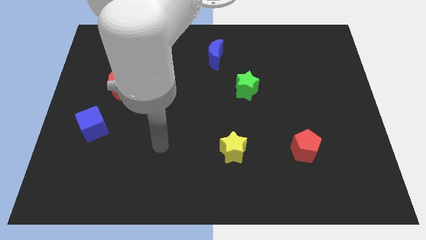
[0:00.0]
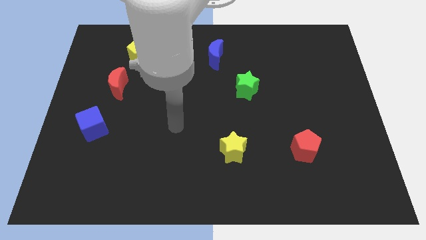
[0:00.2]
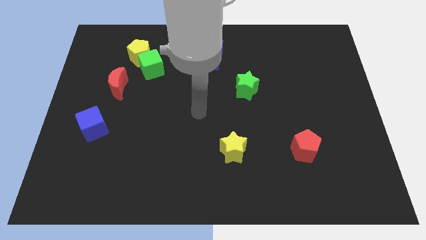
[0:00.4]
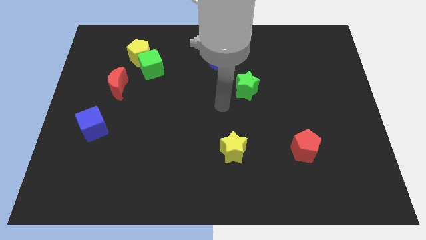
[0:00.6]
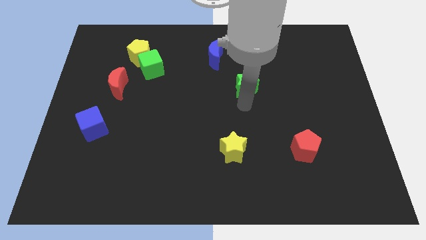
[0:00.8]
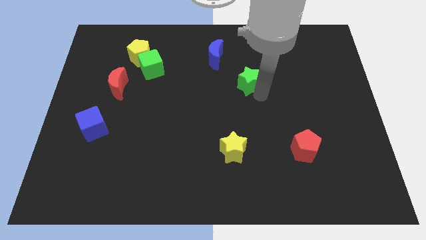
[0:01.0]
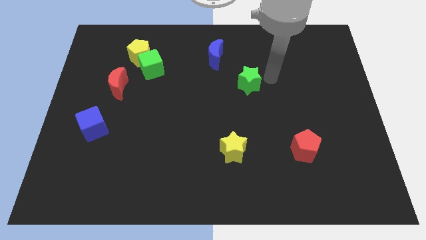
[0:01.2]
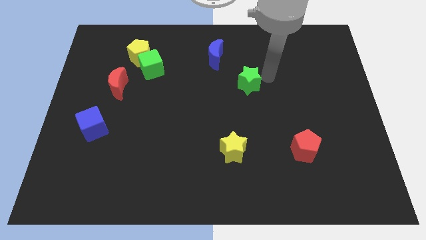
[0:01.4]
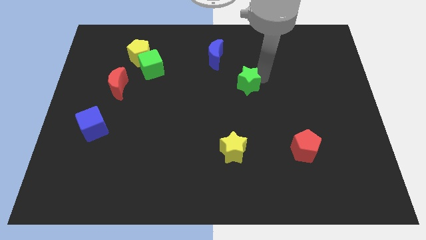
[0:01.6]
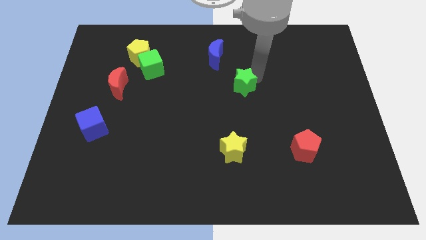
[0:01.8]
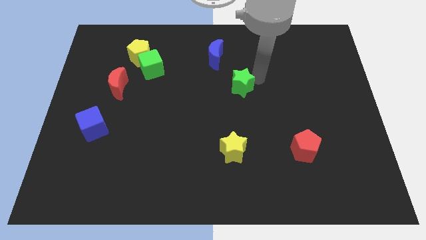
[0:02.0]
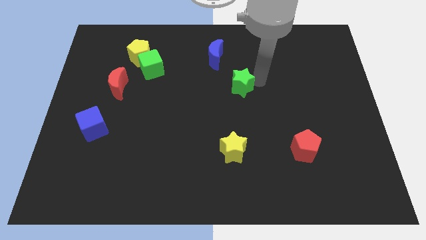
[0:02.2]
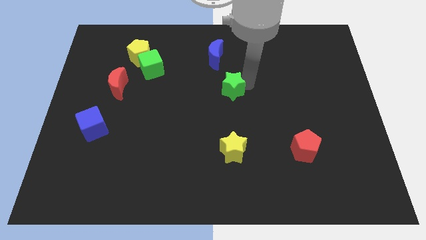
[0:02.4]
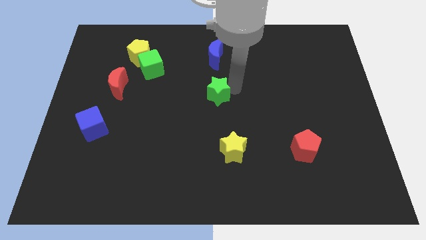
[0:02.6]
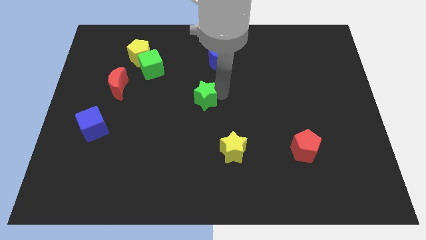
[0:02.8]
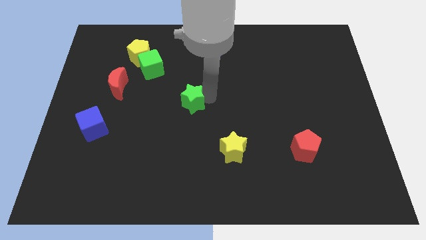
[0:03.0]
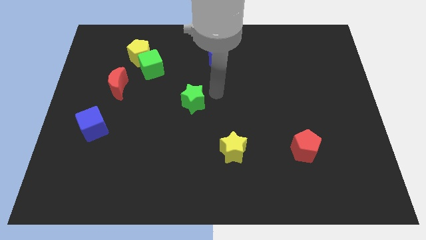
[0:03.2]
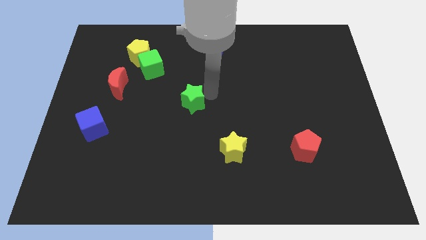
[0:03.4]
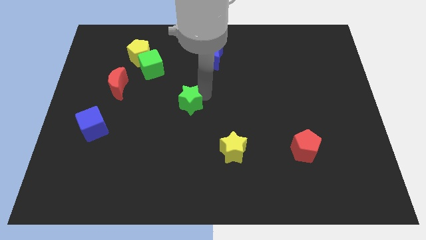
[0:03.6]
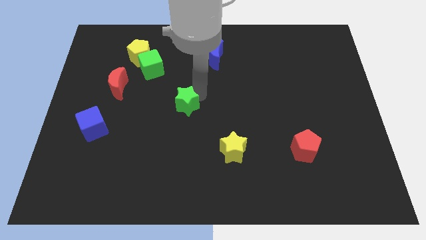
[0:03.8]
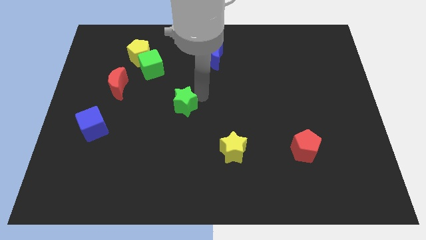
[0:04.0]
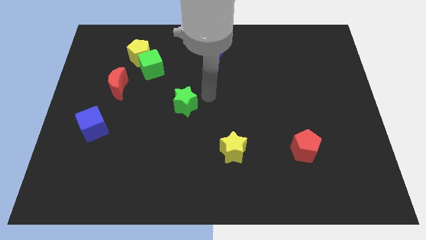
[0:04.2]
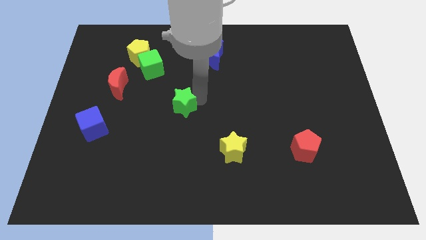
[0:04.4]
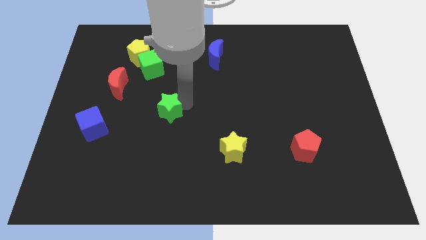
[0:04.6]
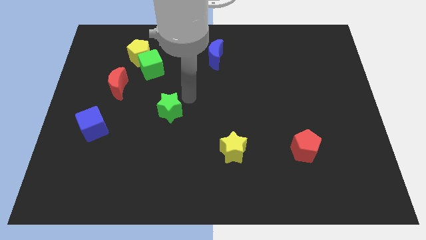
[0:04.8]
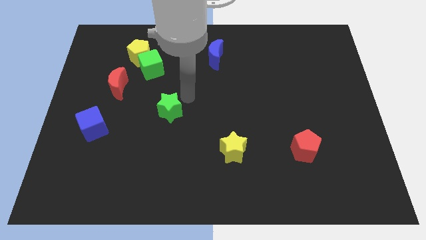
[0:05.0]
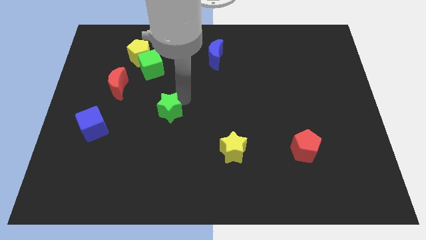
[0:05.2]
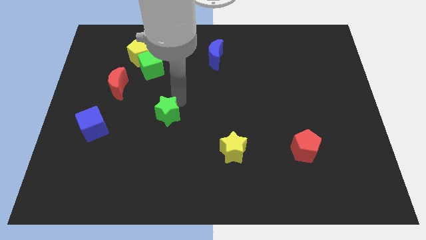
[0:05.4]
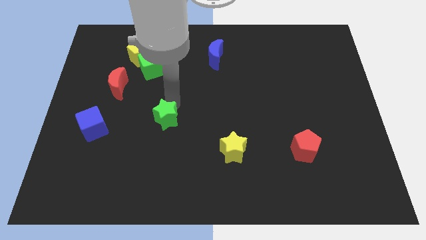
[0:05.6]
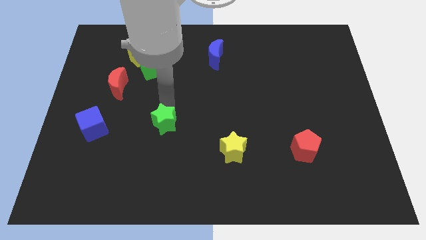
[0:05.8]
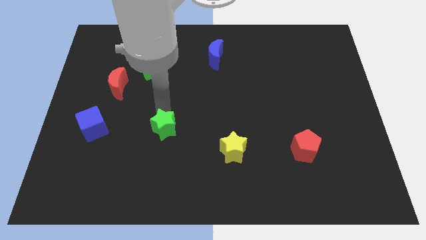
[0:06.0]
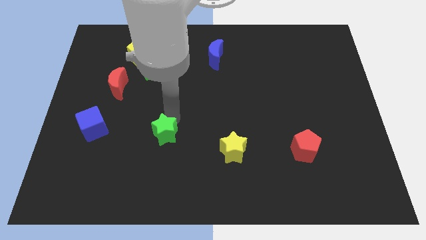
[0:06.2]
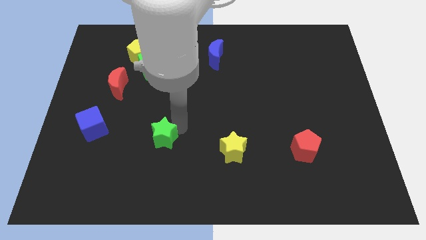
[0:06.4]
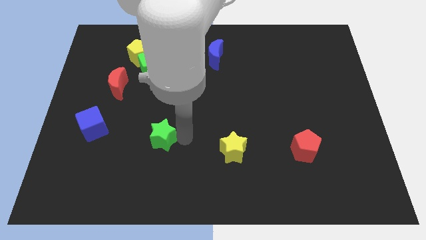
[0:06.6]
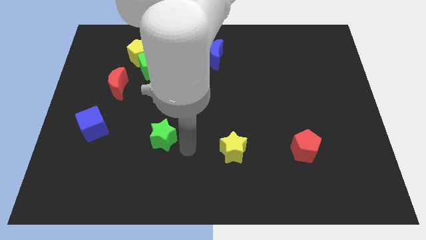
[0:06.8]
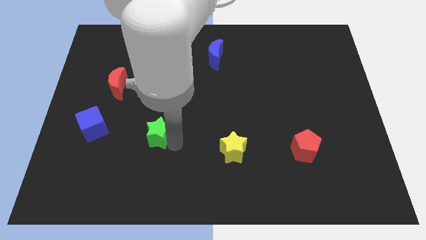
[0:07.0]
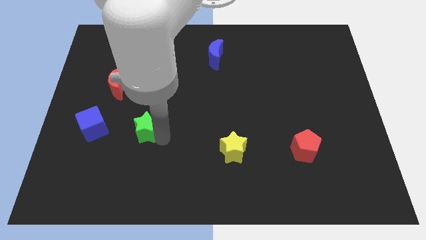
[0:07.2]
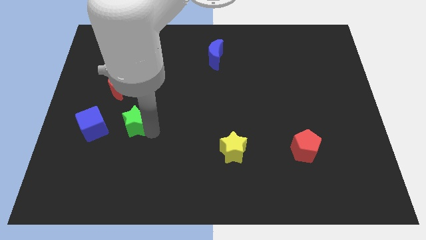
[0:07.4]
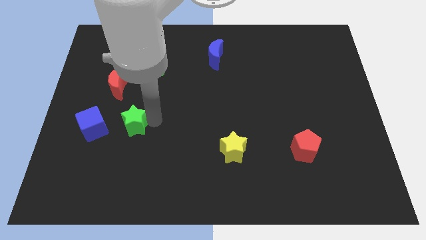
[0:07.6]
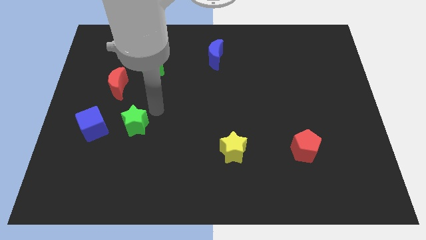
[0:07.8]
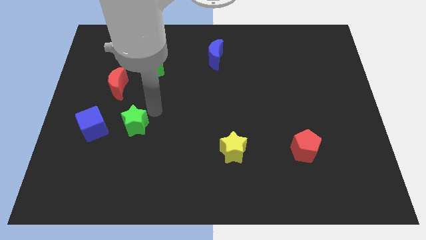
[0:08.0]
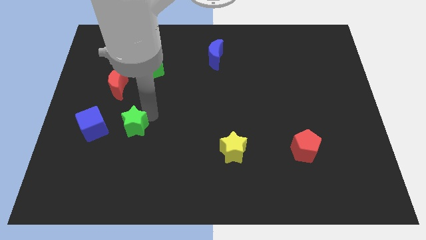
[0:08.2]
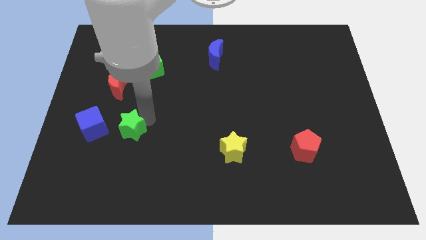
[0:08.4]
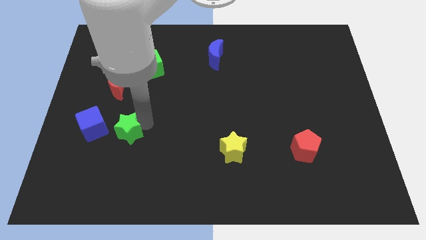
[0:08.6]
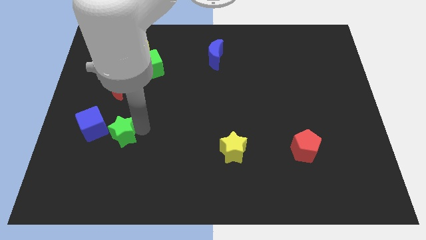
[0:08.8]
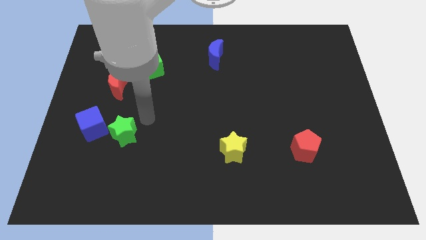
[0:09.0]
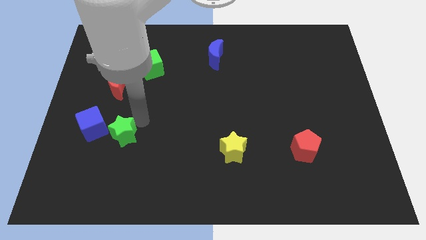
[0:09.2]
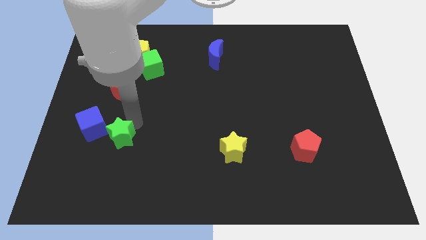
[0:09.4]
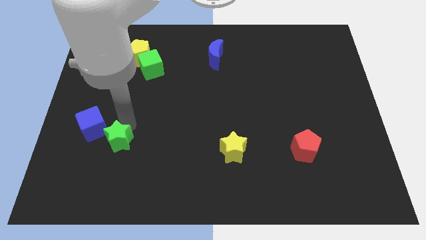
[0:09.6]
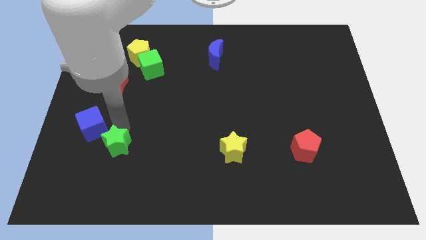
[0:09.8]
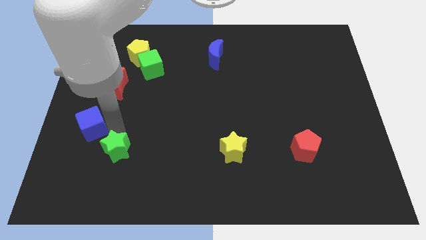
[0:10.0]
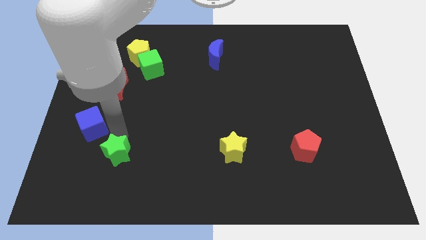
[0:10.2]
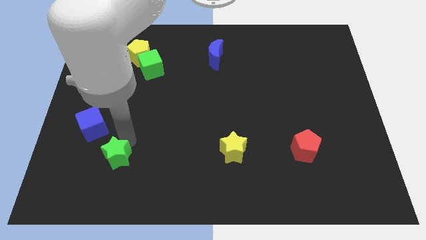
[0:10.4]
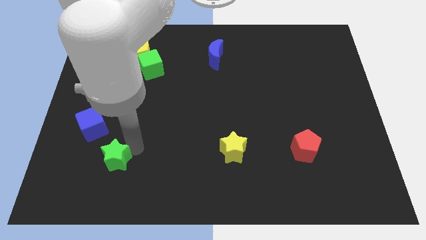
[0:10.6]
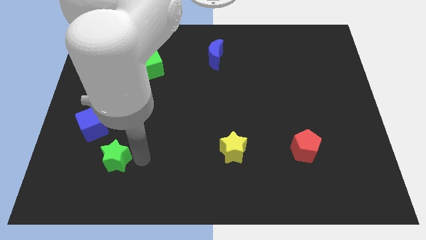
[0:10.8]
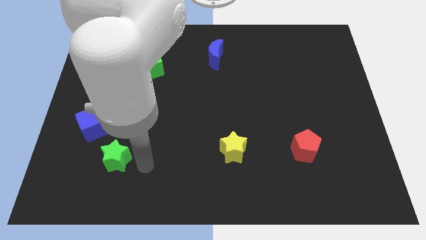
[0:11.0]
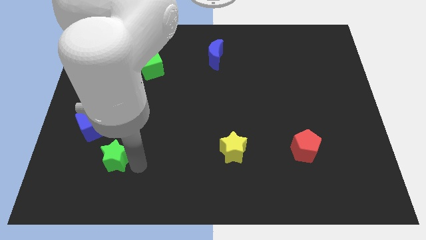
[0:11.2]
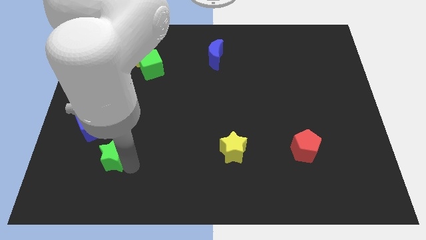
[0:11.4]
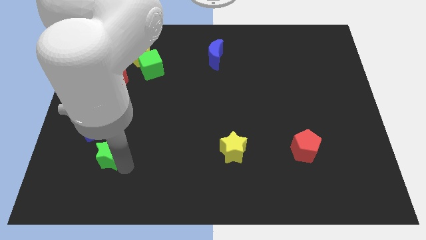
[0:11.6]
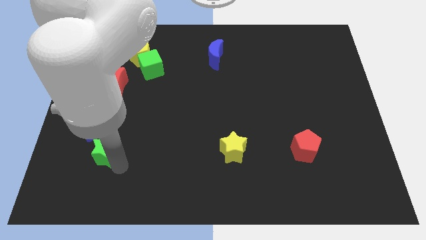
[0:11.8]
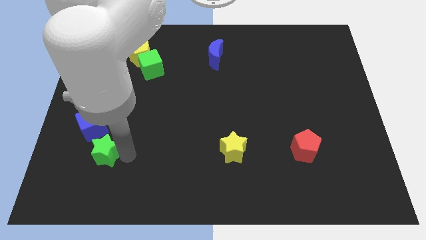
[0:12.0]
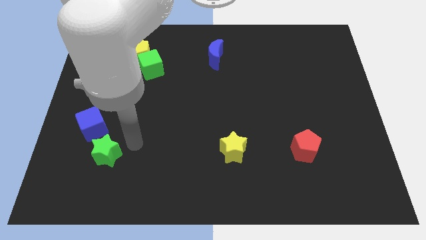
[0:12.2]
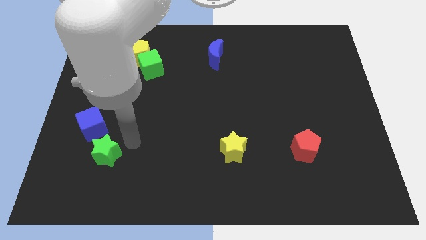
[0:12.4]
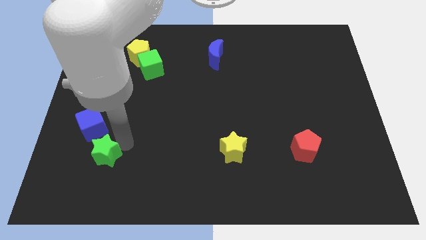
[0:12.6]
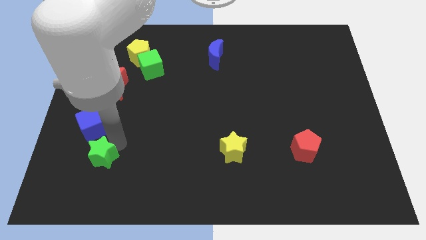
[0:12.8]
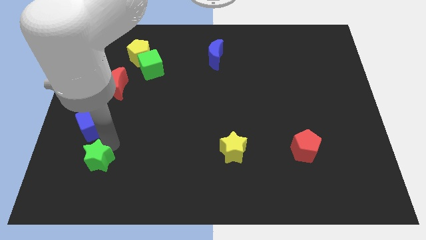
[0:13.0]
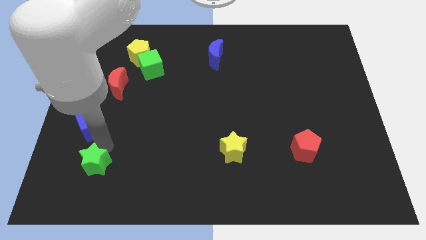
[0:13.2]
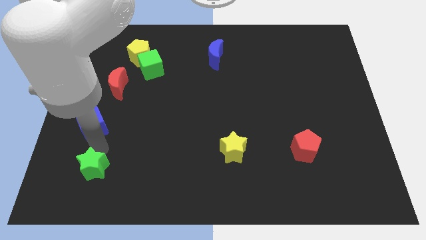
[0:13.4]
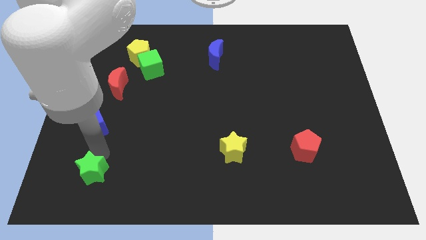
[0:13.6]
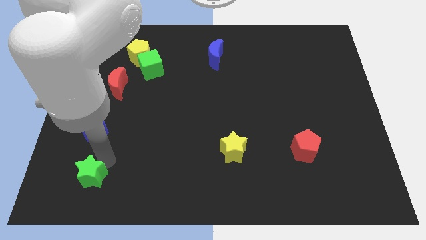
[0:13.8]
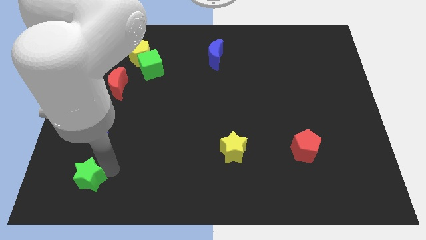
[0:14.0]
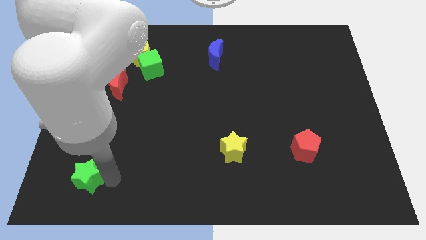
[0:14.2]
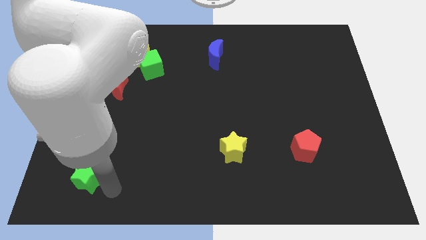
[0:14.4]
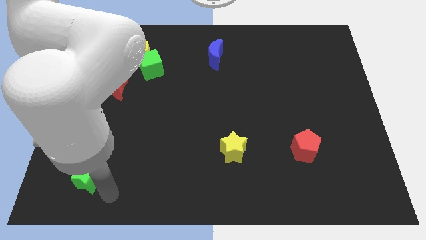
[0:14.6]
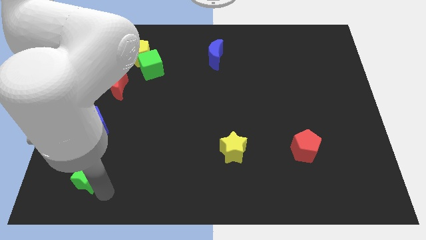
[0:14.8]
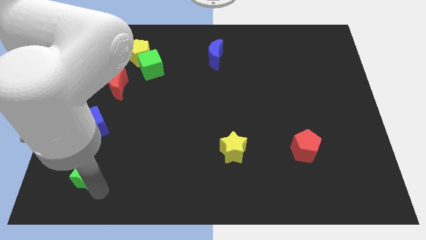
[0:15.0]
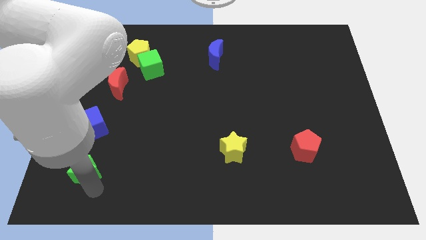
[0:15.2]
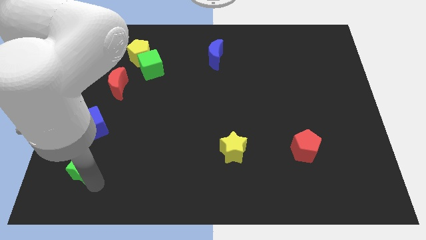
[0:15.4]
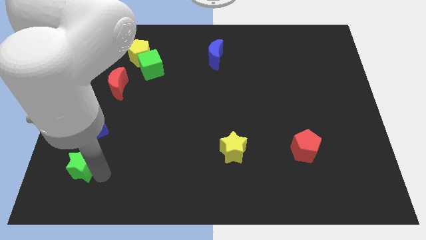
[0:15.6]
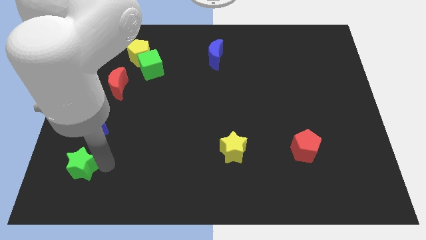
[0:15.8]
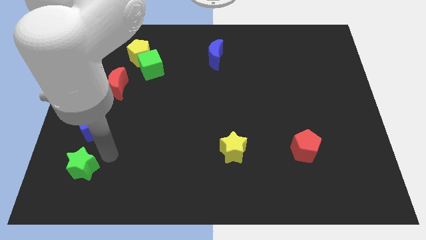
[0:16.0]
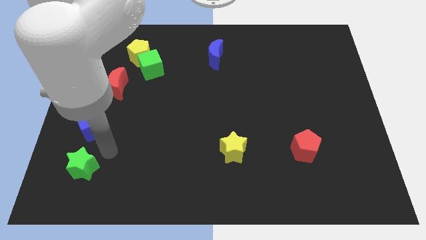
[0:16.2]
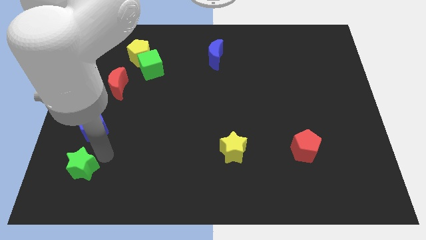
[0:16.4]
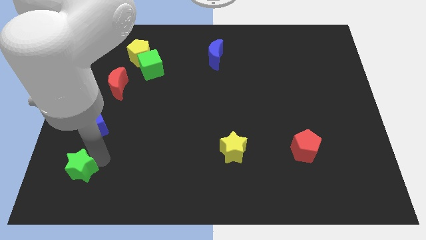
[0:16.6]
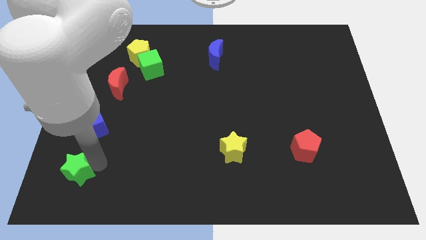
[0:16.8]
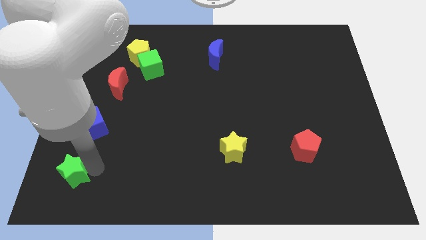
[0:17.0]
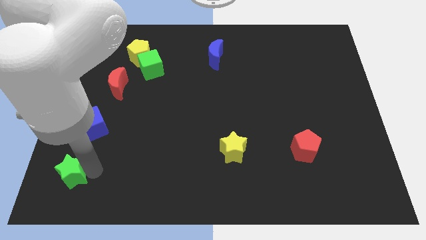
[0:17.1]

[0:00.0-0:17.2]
push the green star to the lower left corner
